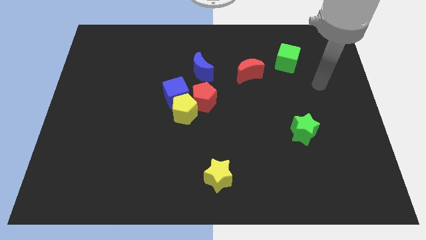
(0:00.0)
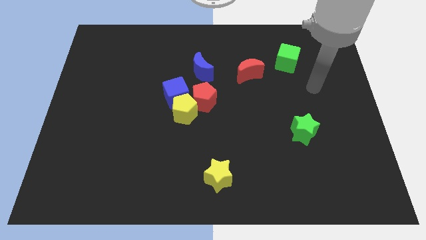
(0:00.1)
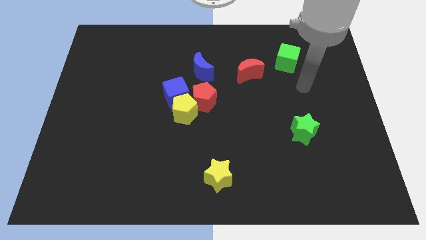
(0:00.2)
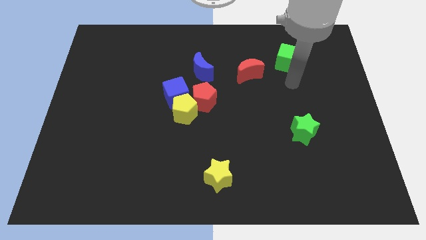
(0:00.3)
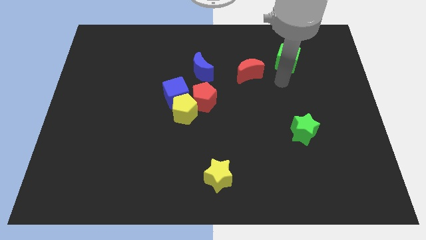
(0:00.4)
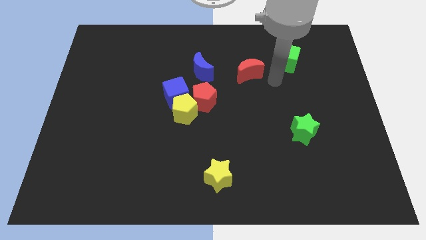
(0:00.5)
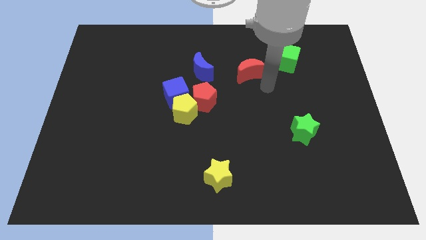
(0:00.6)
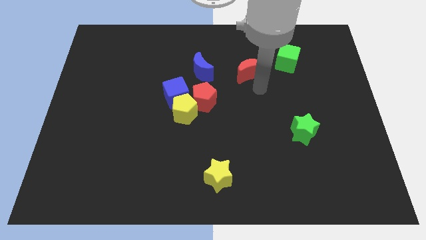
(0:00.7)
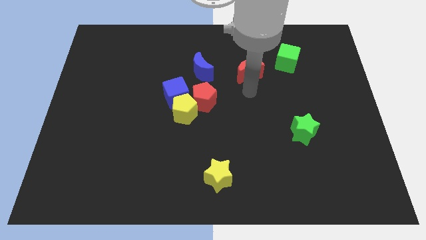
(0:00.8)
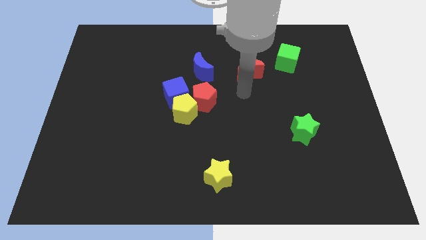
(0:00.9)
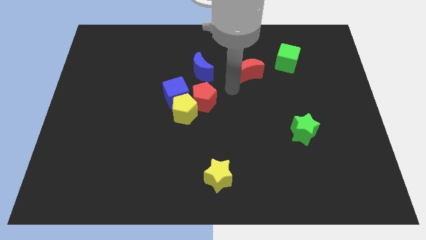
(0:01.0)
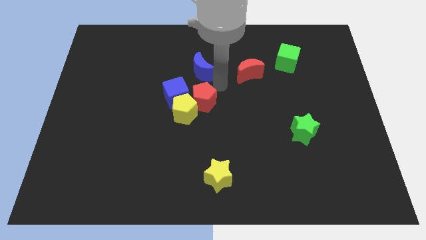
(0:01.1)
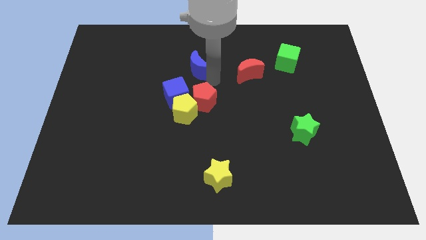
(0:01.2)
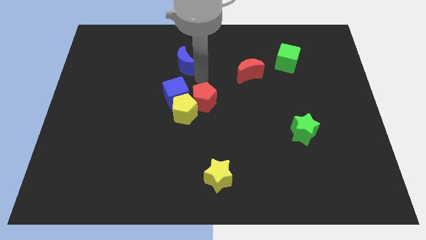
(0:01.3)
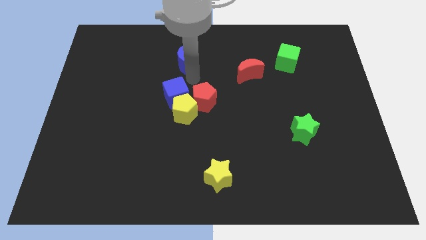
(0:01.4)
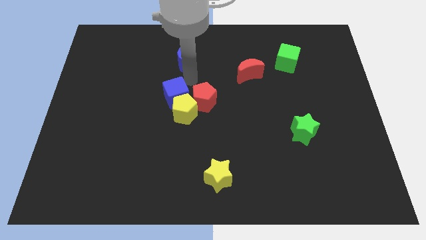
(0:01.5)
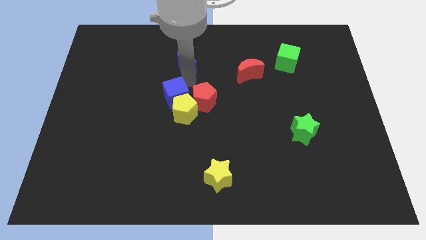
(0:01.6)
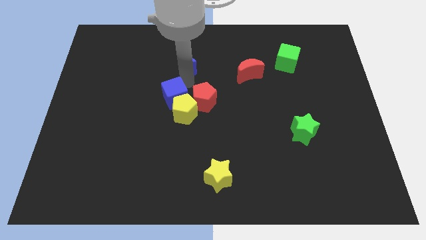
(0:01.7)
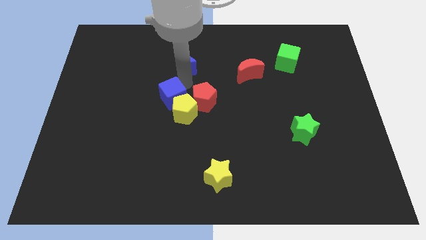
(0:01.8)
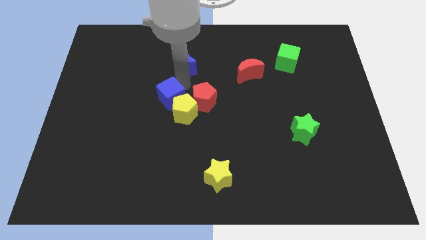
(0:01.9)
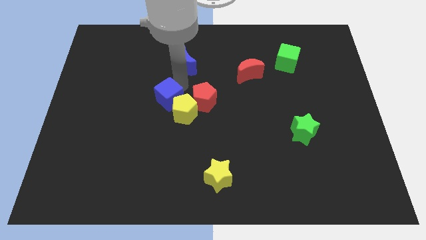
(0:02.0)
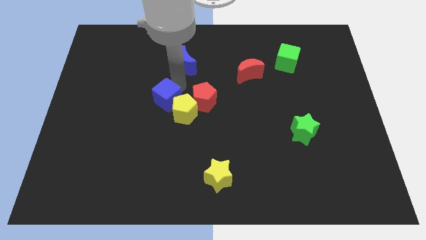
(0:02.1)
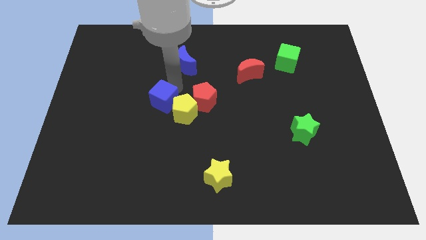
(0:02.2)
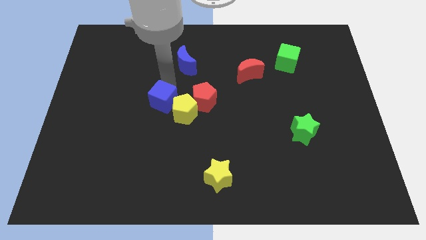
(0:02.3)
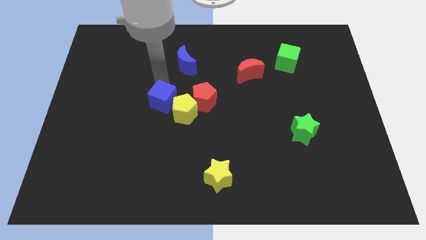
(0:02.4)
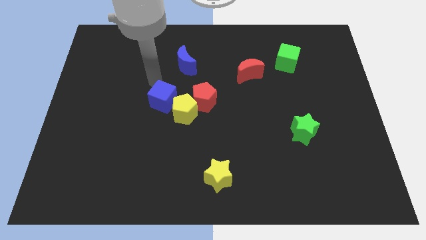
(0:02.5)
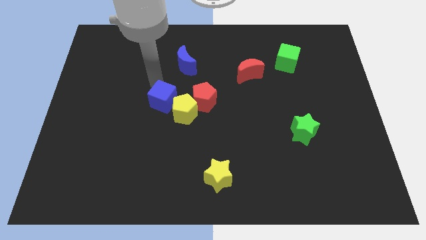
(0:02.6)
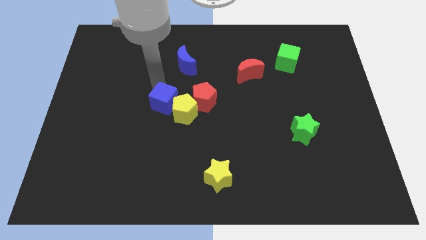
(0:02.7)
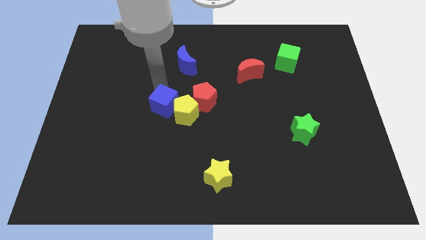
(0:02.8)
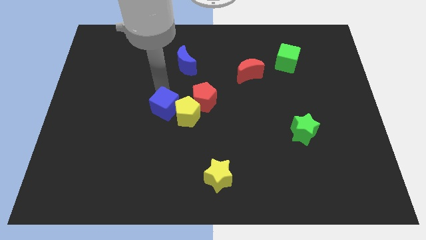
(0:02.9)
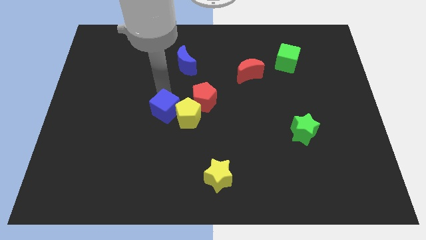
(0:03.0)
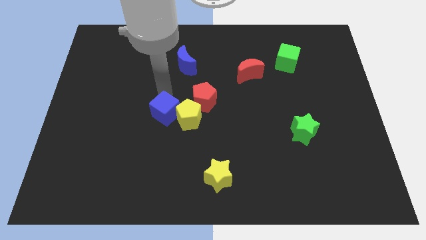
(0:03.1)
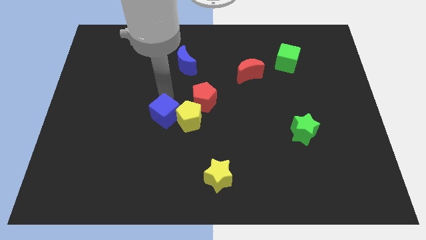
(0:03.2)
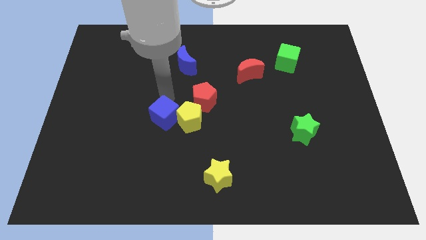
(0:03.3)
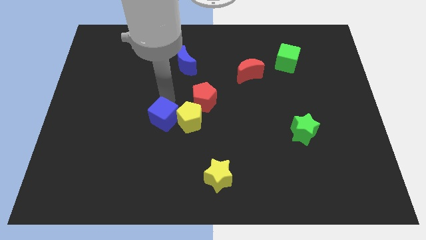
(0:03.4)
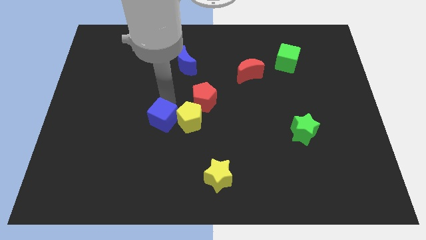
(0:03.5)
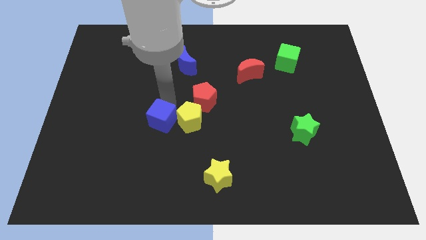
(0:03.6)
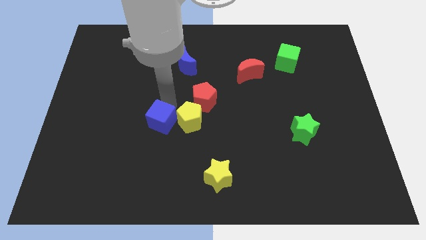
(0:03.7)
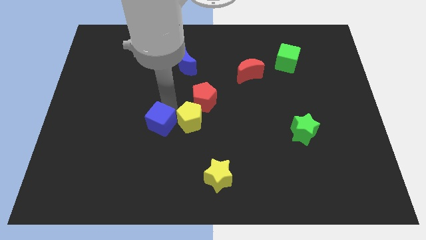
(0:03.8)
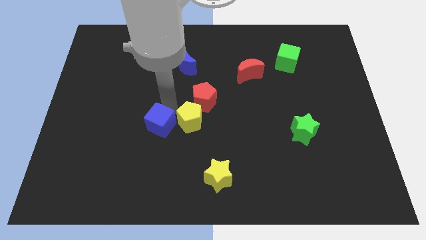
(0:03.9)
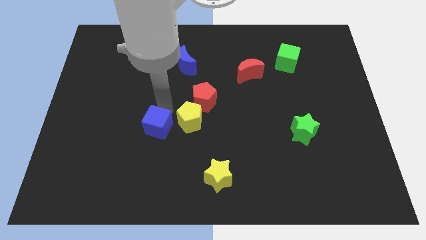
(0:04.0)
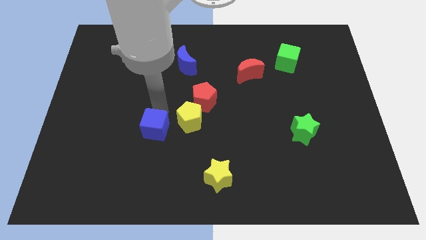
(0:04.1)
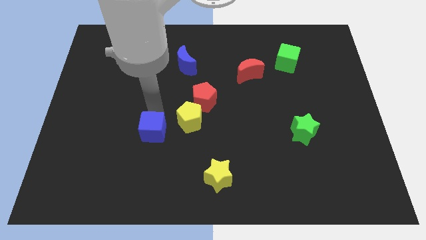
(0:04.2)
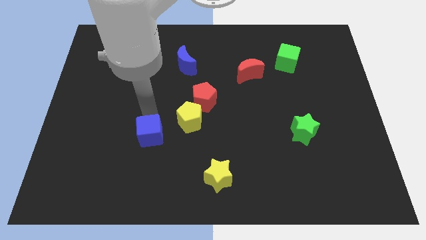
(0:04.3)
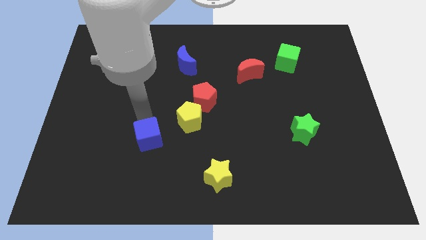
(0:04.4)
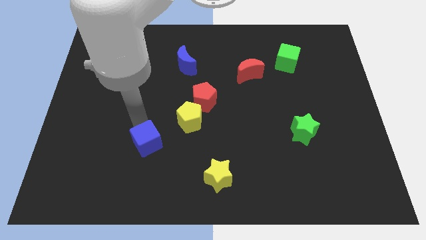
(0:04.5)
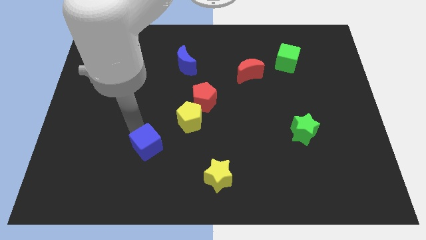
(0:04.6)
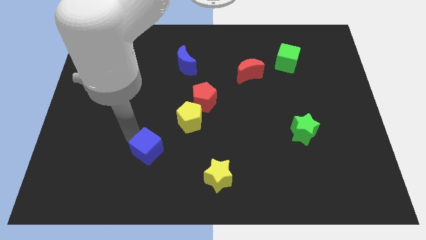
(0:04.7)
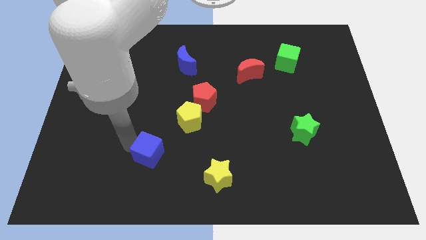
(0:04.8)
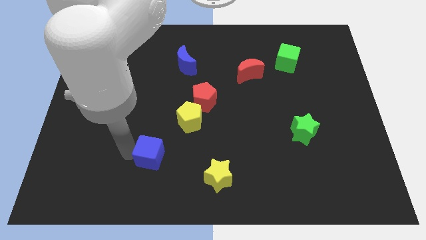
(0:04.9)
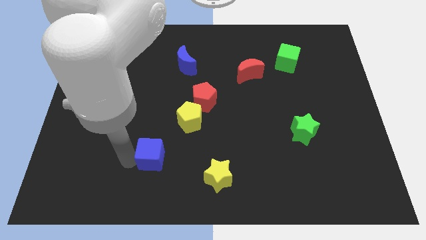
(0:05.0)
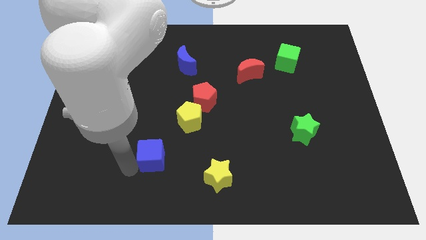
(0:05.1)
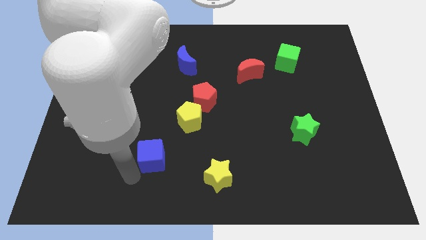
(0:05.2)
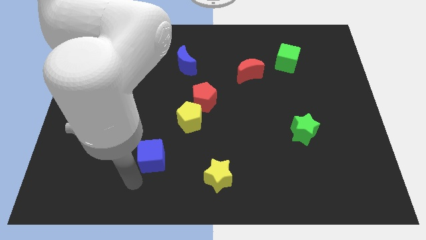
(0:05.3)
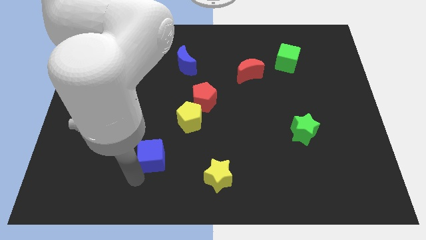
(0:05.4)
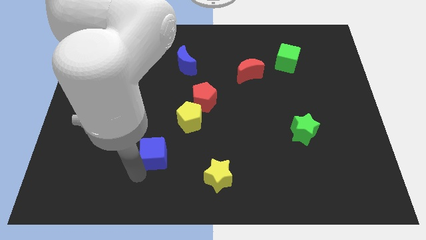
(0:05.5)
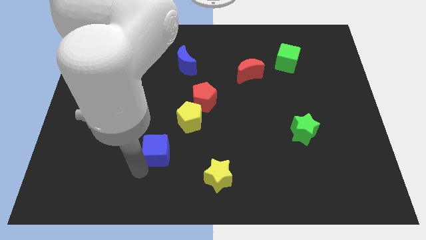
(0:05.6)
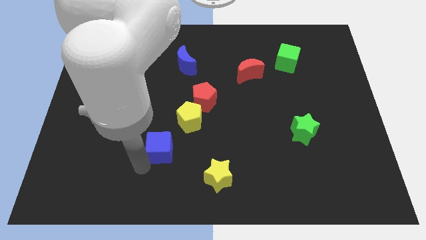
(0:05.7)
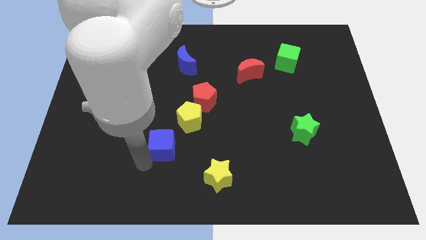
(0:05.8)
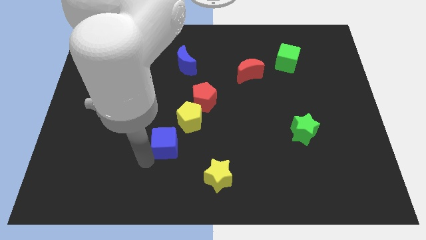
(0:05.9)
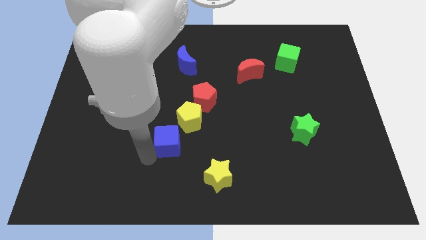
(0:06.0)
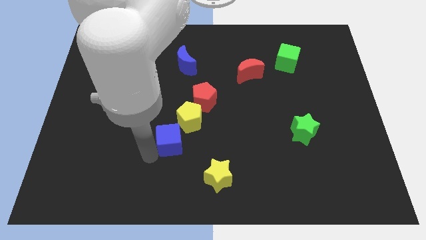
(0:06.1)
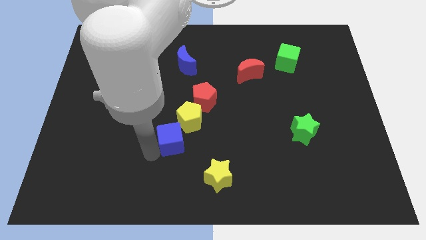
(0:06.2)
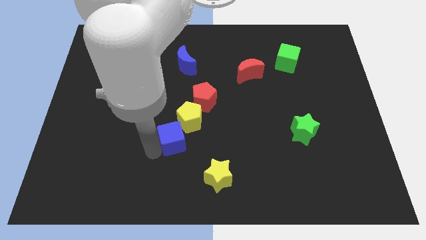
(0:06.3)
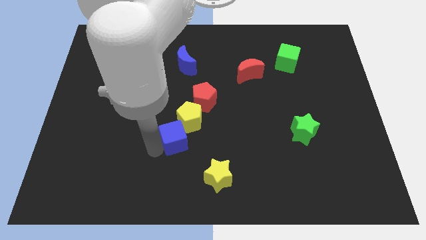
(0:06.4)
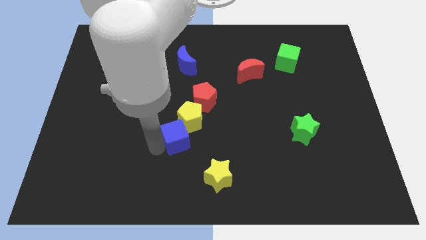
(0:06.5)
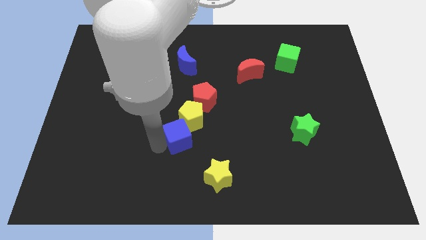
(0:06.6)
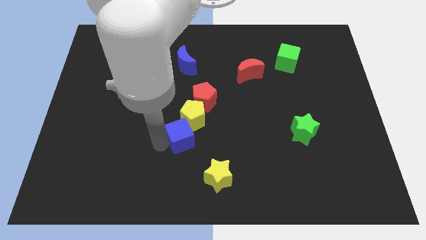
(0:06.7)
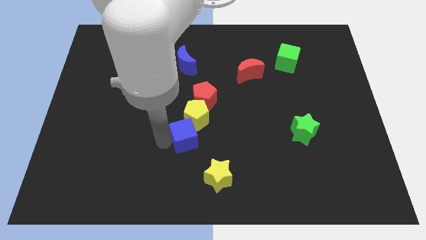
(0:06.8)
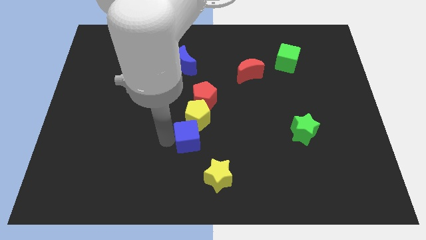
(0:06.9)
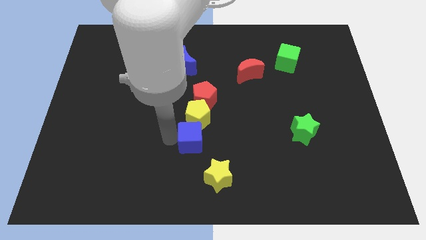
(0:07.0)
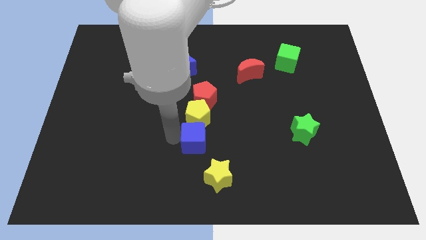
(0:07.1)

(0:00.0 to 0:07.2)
move the blue cube to the bottom right side of the yellow pentagon

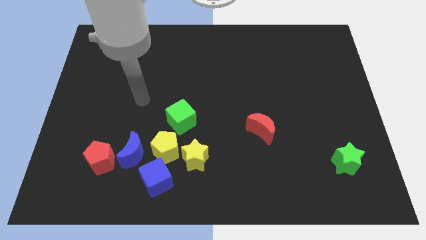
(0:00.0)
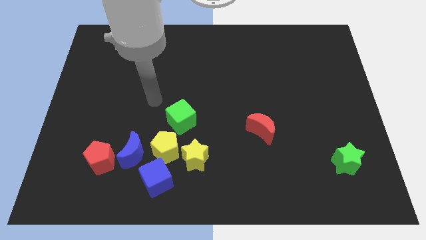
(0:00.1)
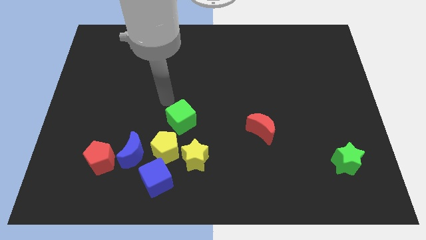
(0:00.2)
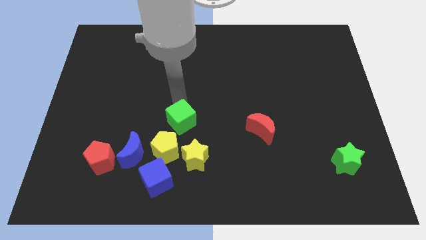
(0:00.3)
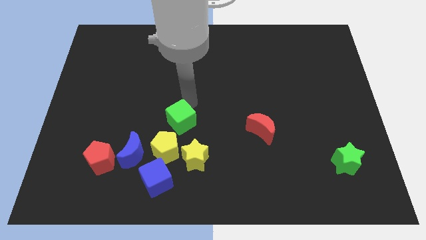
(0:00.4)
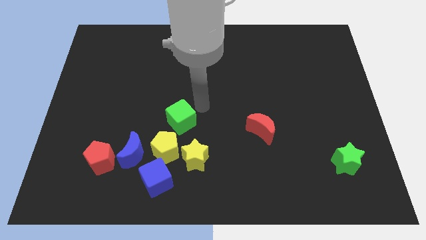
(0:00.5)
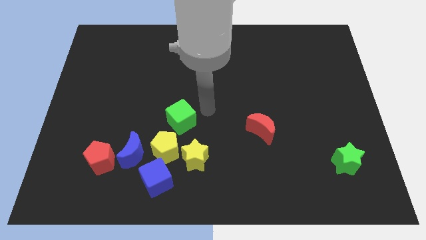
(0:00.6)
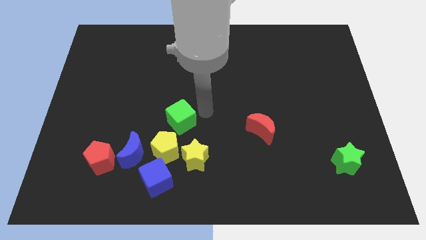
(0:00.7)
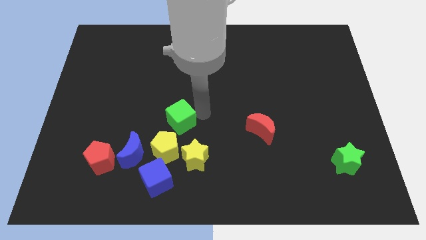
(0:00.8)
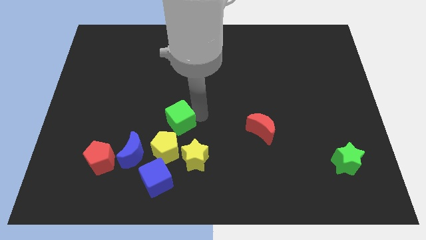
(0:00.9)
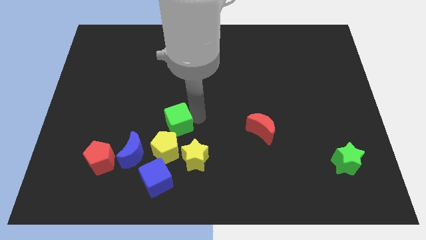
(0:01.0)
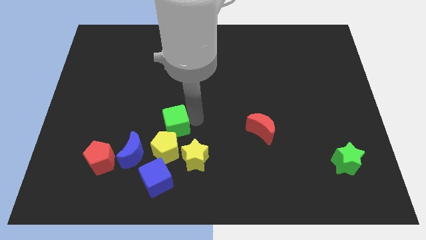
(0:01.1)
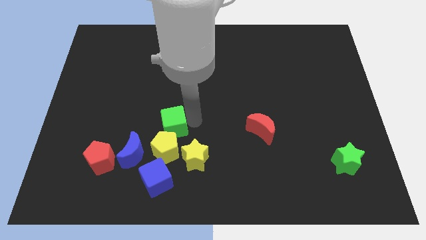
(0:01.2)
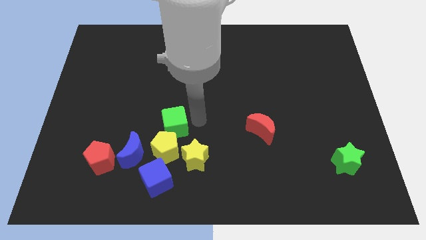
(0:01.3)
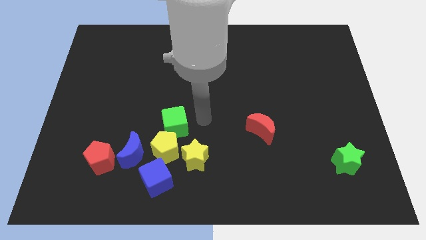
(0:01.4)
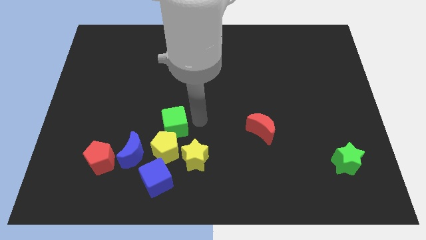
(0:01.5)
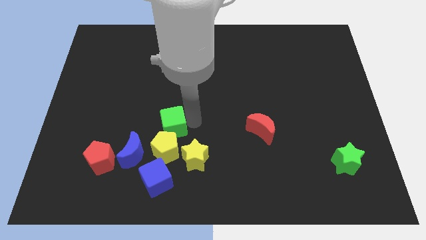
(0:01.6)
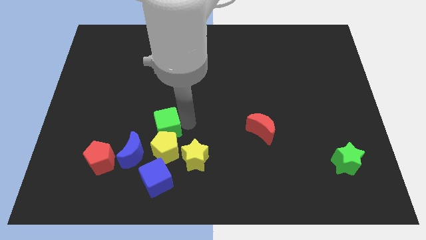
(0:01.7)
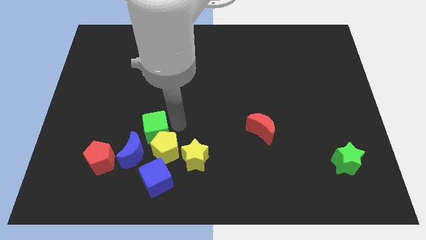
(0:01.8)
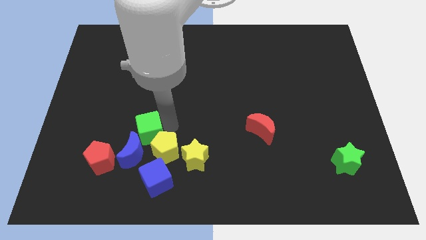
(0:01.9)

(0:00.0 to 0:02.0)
slide the green cube to the top right of the red pentagon
